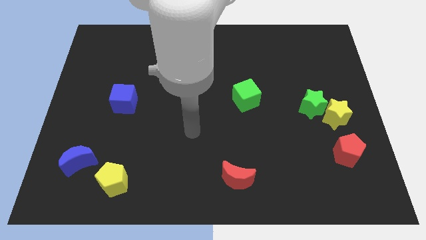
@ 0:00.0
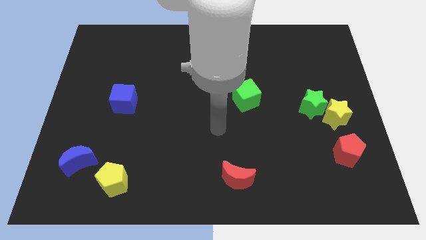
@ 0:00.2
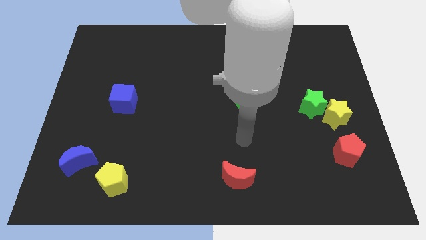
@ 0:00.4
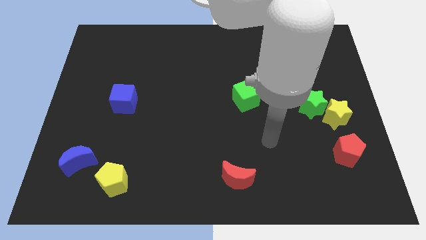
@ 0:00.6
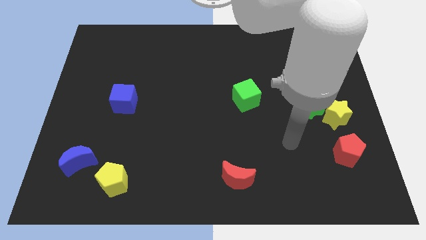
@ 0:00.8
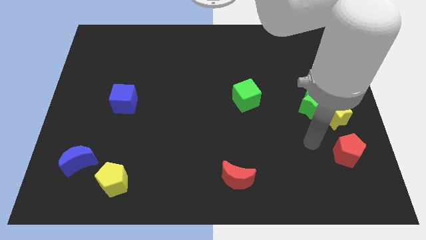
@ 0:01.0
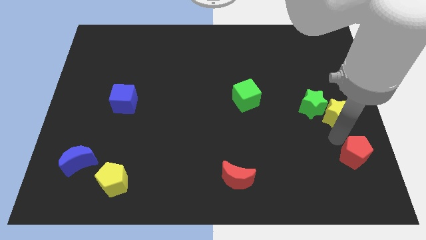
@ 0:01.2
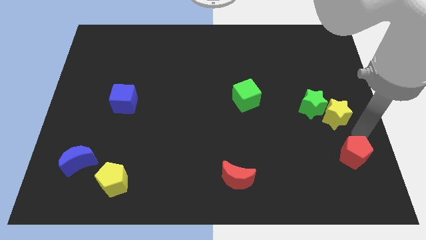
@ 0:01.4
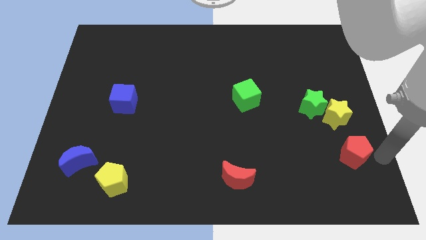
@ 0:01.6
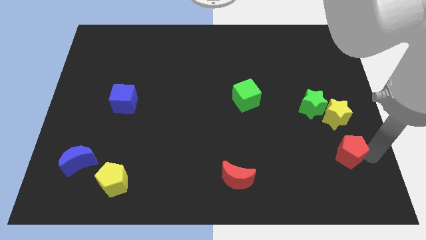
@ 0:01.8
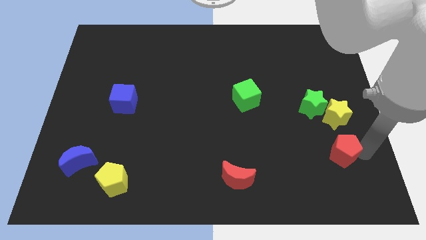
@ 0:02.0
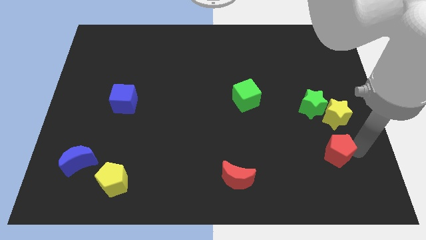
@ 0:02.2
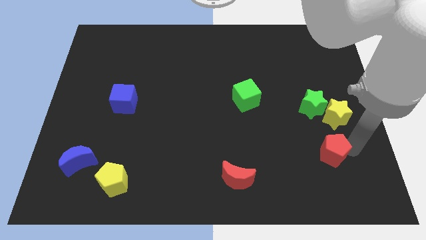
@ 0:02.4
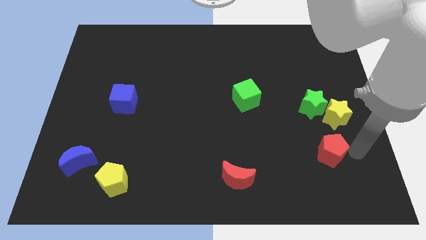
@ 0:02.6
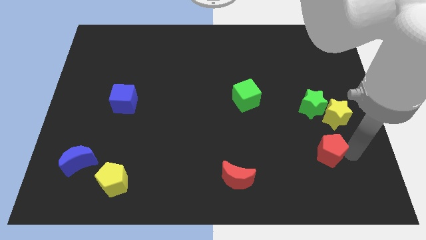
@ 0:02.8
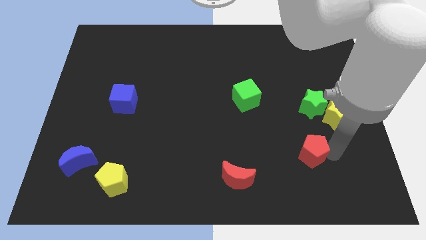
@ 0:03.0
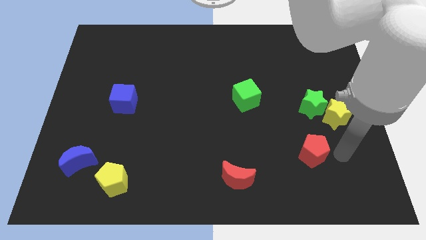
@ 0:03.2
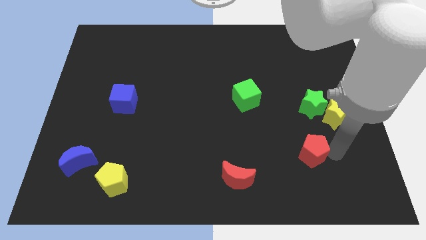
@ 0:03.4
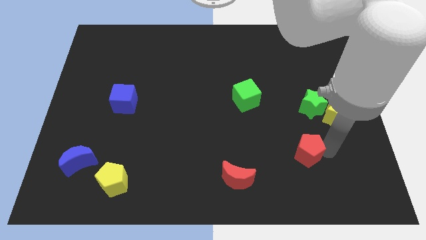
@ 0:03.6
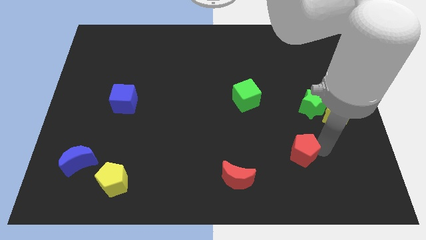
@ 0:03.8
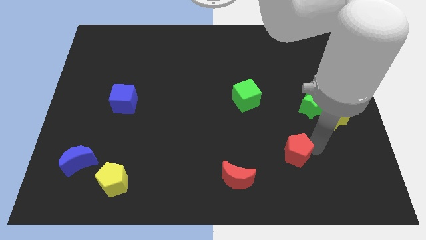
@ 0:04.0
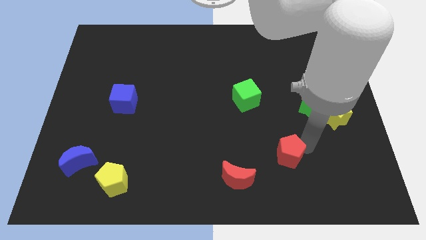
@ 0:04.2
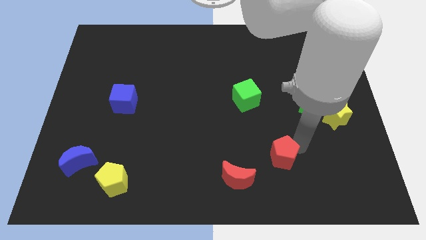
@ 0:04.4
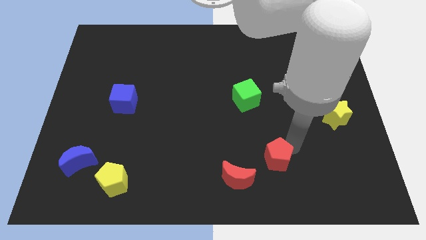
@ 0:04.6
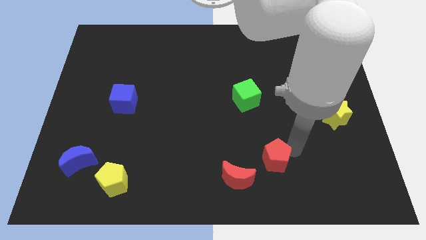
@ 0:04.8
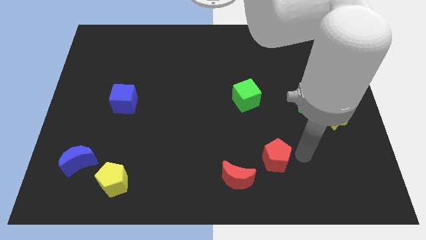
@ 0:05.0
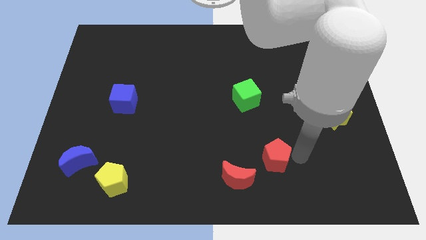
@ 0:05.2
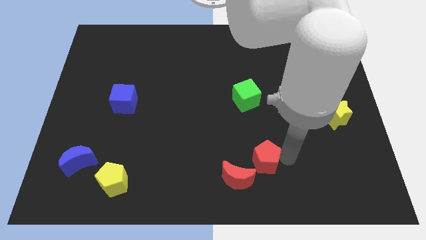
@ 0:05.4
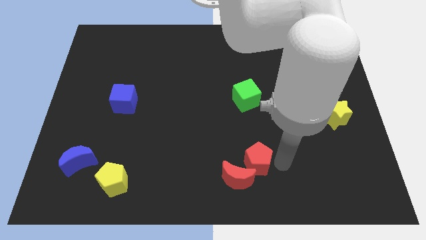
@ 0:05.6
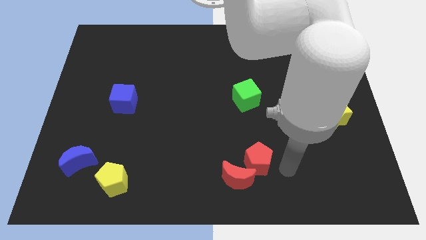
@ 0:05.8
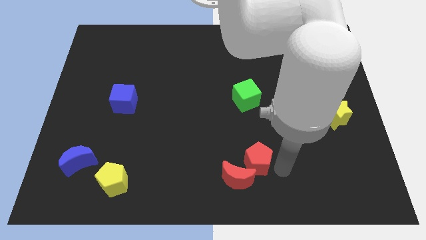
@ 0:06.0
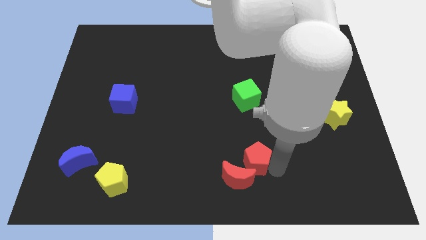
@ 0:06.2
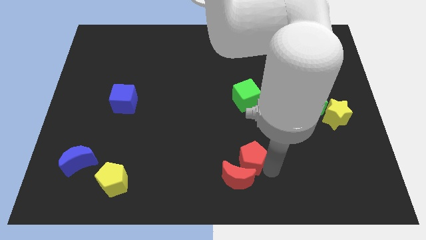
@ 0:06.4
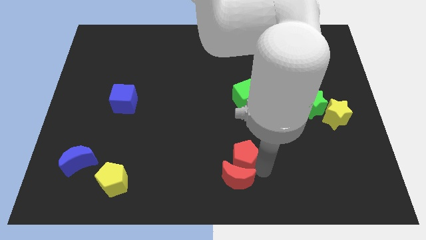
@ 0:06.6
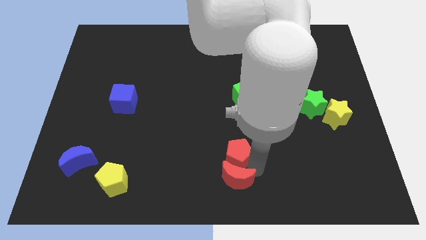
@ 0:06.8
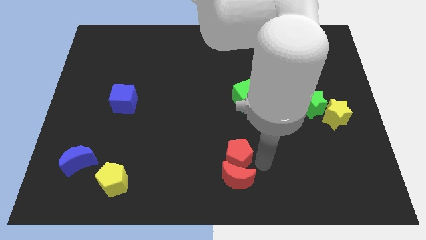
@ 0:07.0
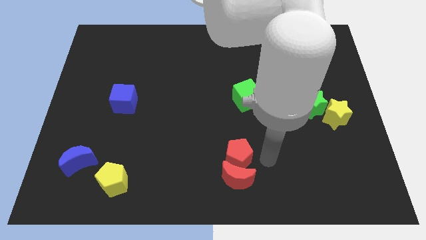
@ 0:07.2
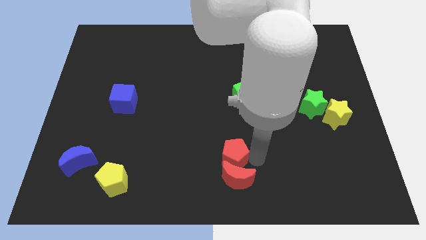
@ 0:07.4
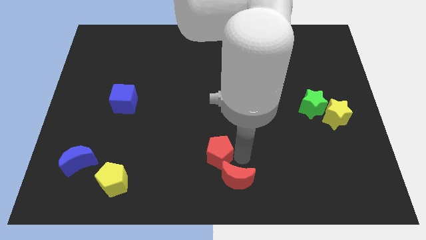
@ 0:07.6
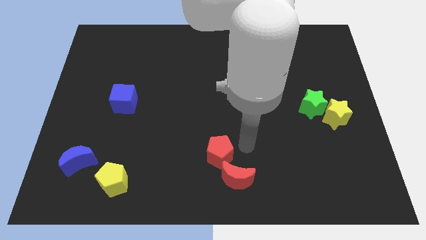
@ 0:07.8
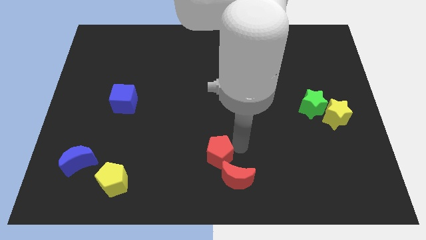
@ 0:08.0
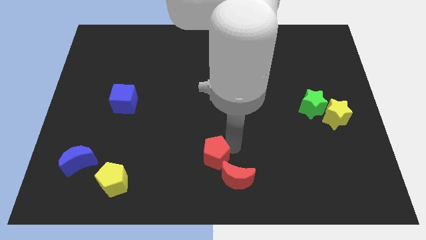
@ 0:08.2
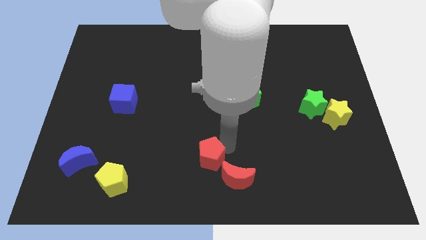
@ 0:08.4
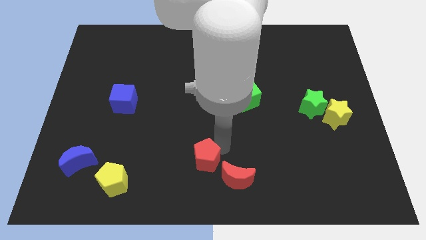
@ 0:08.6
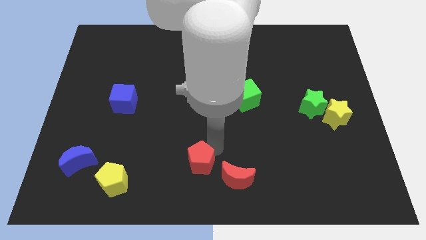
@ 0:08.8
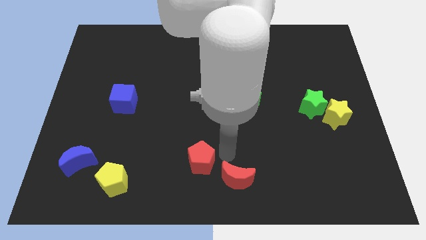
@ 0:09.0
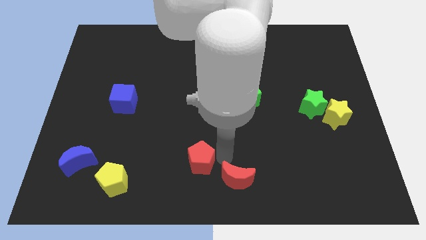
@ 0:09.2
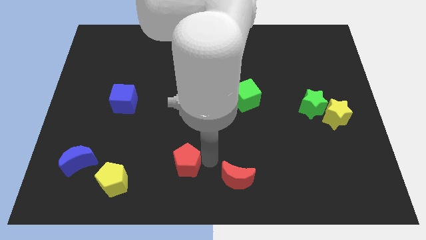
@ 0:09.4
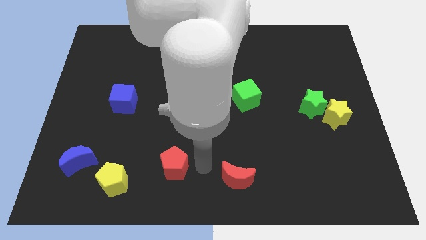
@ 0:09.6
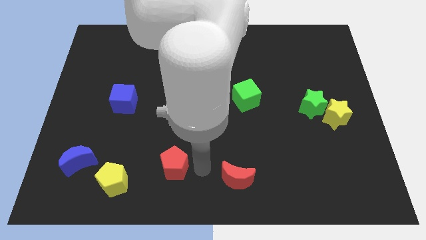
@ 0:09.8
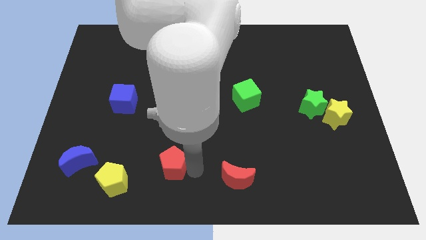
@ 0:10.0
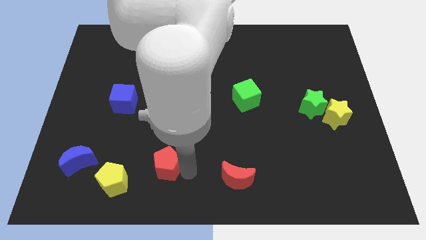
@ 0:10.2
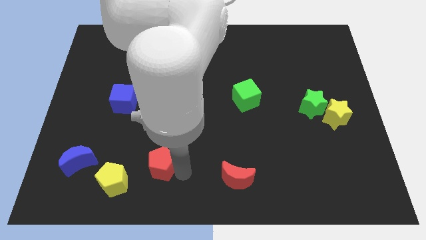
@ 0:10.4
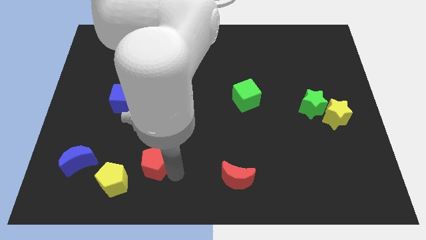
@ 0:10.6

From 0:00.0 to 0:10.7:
slide the red pentagon just right of the blue moon

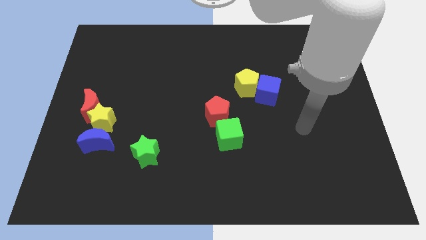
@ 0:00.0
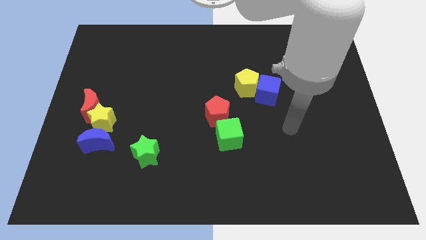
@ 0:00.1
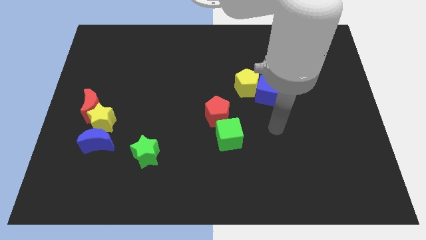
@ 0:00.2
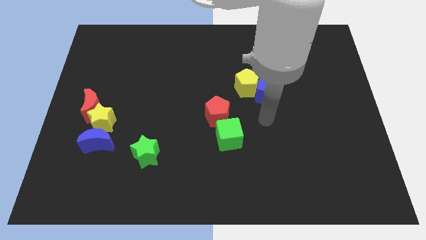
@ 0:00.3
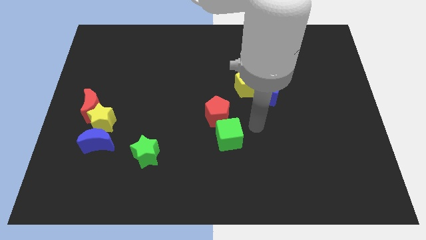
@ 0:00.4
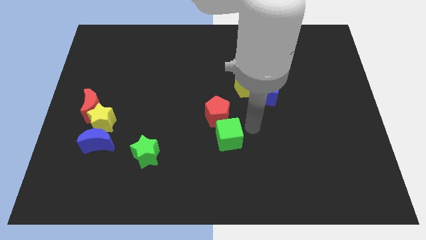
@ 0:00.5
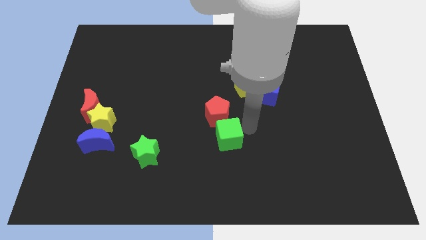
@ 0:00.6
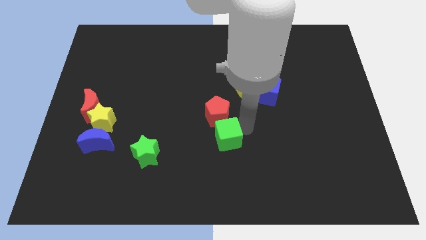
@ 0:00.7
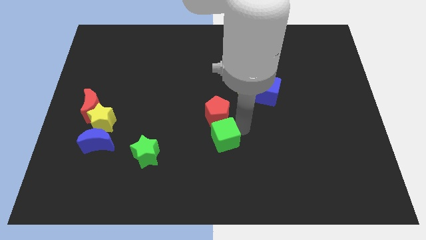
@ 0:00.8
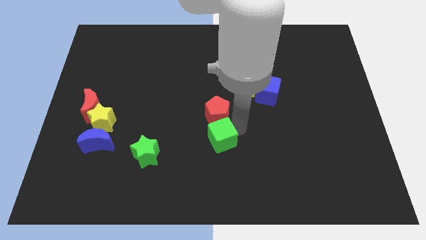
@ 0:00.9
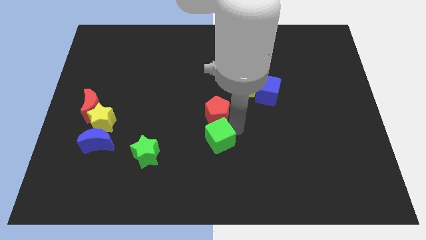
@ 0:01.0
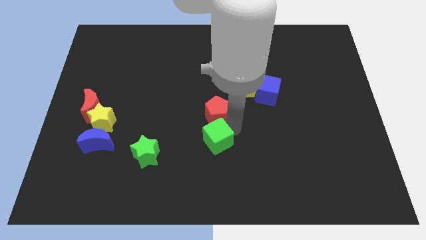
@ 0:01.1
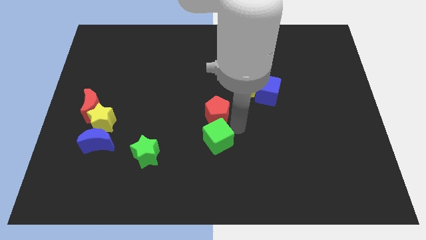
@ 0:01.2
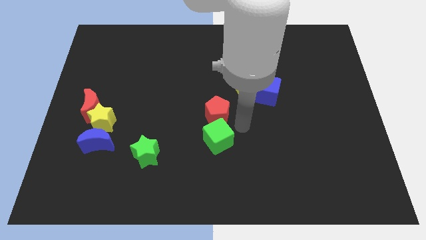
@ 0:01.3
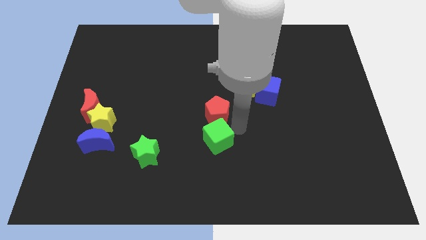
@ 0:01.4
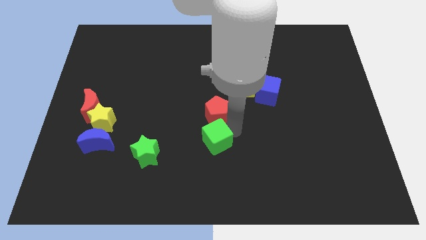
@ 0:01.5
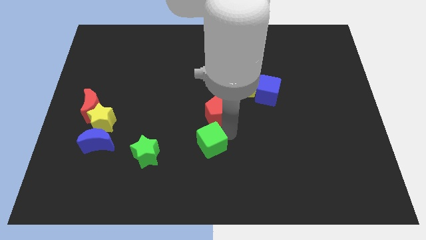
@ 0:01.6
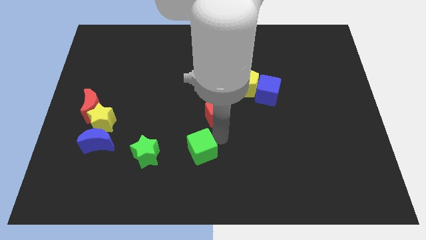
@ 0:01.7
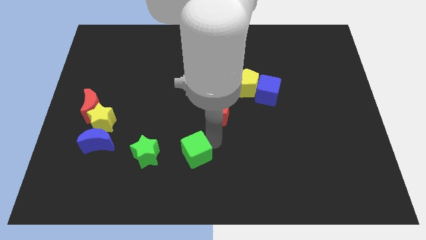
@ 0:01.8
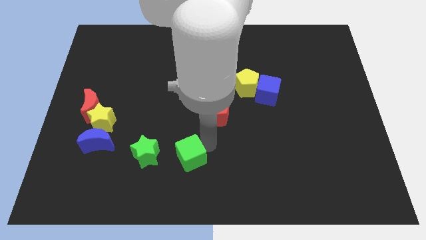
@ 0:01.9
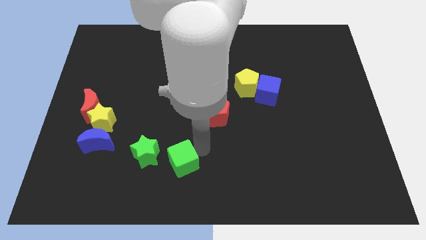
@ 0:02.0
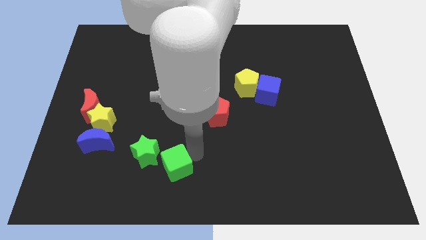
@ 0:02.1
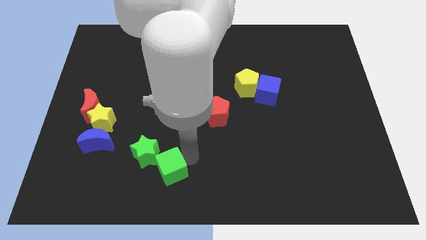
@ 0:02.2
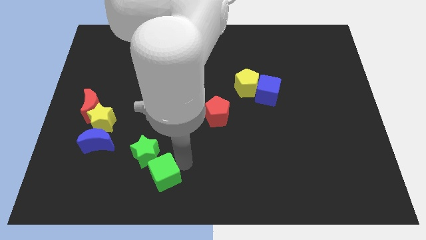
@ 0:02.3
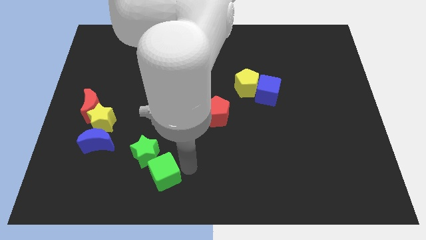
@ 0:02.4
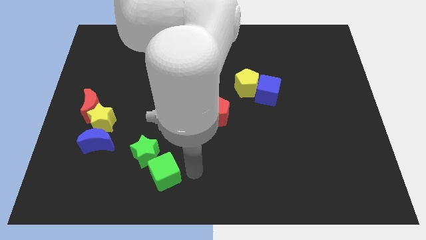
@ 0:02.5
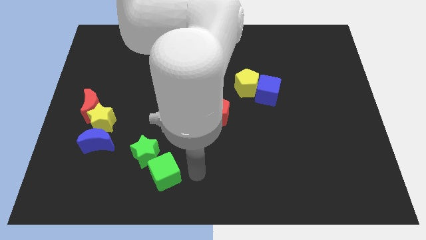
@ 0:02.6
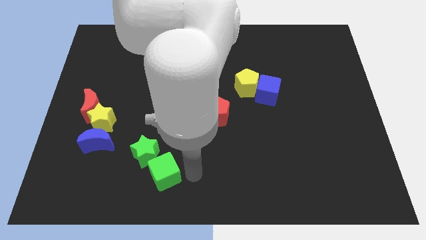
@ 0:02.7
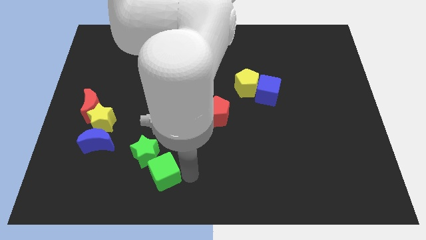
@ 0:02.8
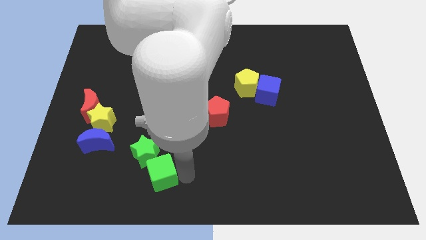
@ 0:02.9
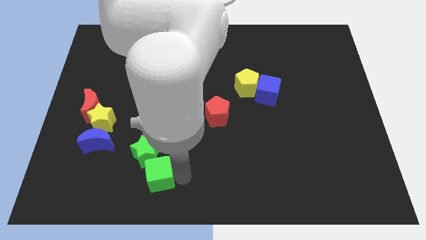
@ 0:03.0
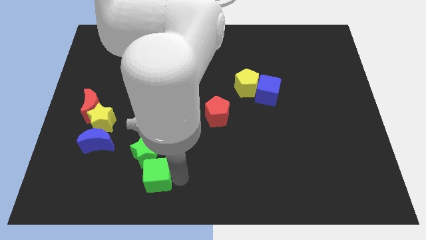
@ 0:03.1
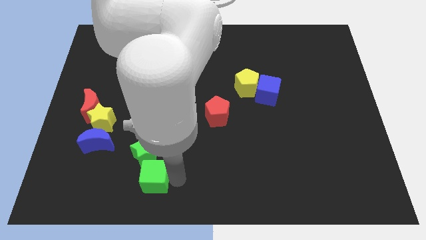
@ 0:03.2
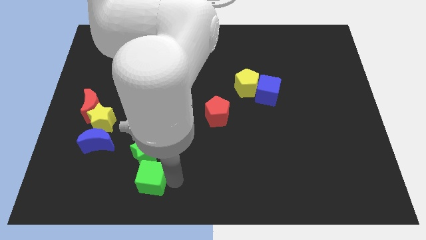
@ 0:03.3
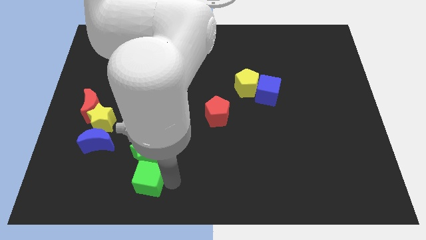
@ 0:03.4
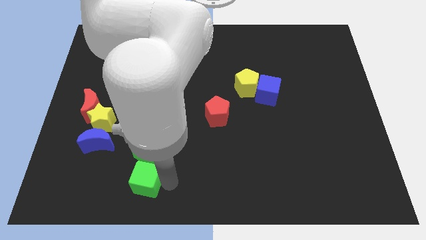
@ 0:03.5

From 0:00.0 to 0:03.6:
slide the green cube diagonally down and to the left of the green star
